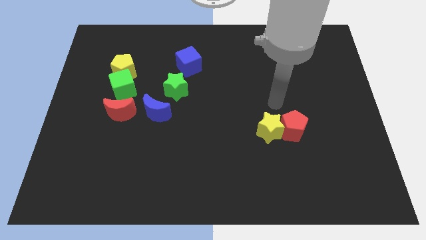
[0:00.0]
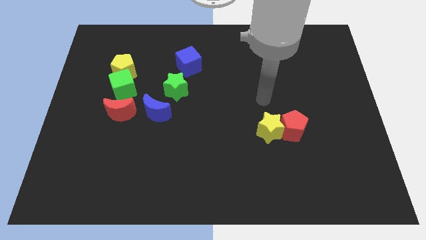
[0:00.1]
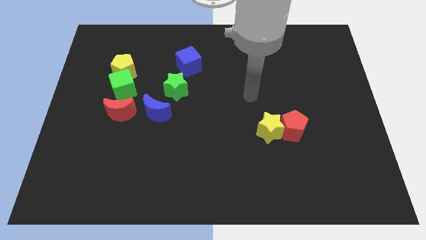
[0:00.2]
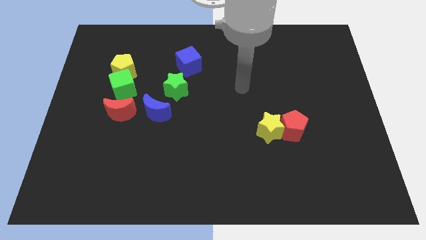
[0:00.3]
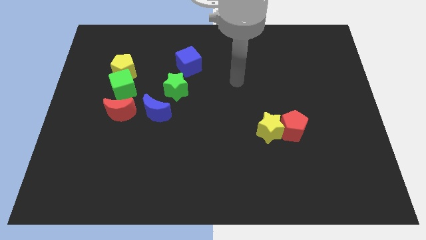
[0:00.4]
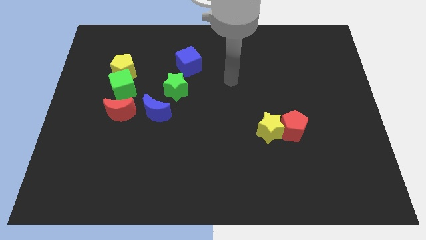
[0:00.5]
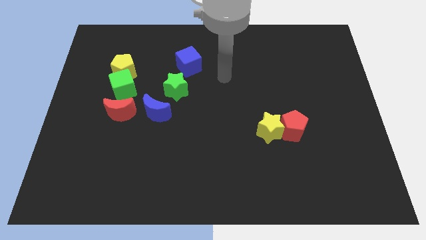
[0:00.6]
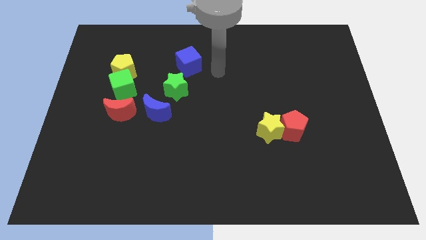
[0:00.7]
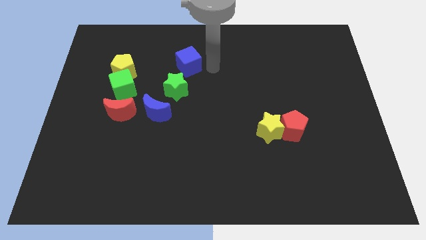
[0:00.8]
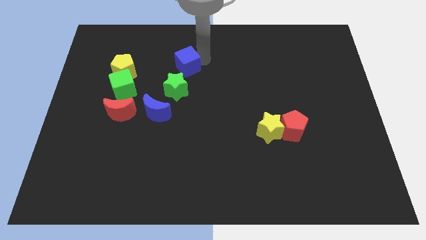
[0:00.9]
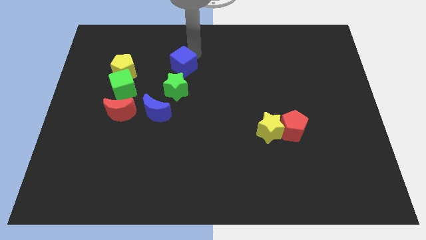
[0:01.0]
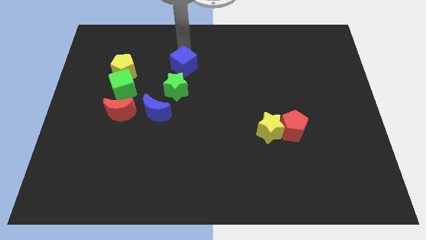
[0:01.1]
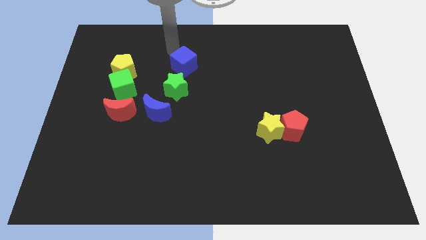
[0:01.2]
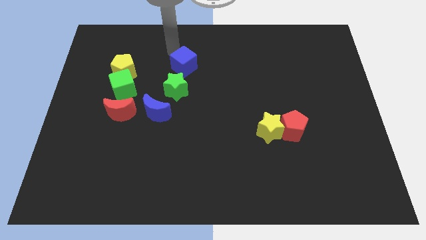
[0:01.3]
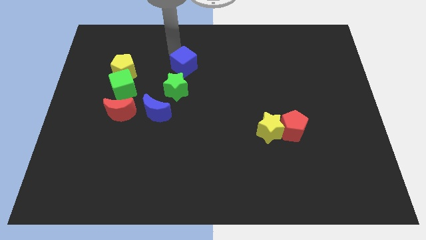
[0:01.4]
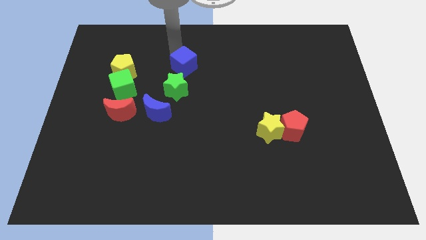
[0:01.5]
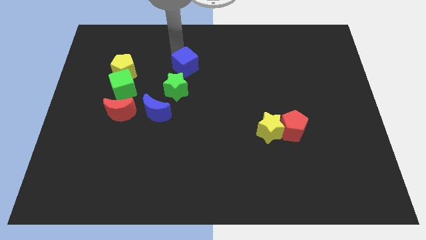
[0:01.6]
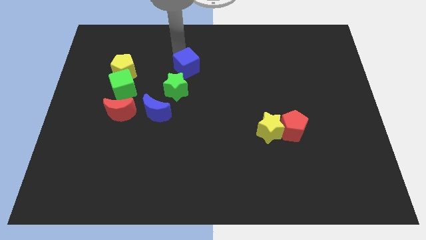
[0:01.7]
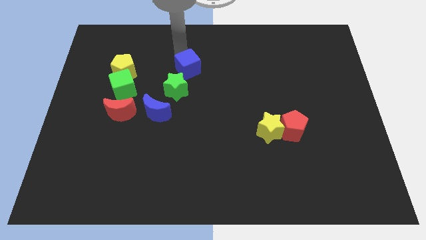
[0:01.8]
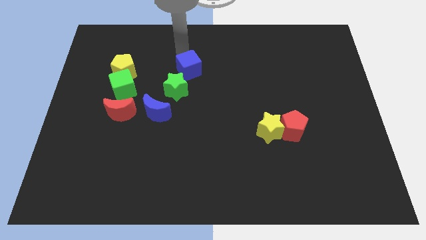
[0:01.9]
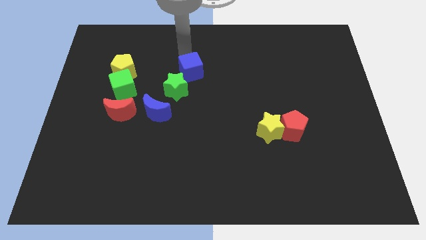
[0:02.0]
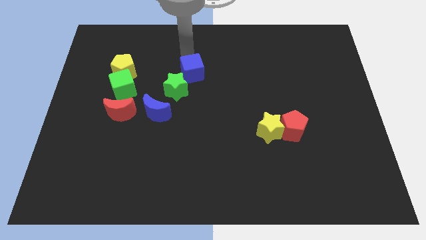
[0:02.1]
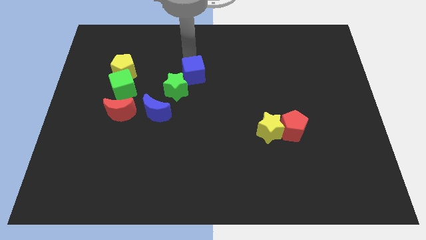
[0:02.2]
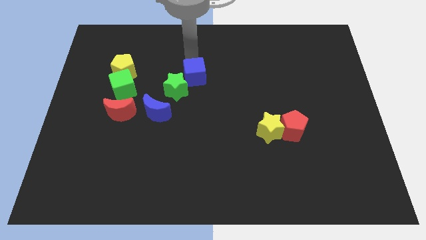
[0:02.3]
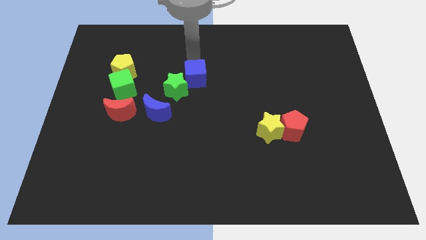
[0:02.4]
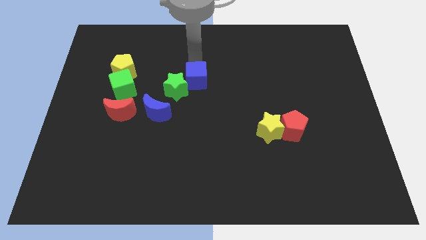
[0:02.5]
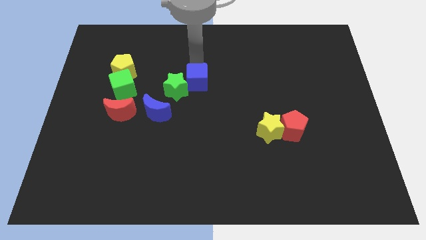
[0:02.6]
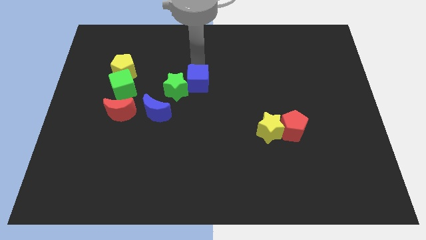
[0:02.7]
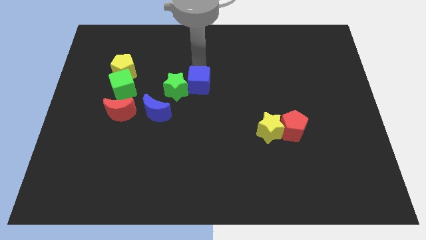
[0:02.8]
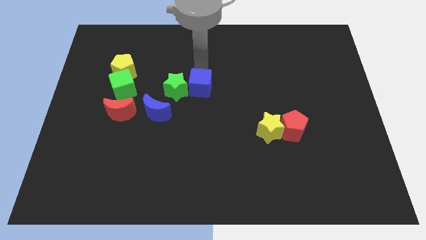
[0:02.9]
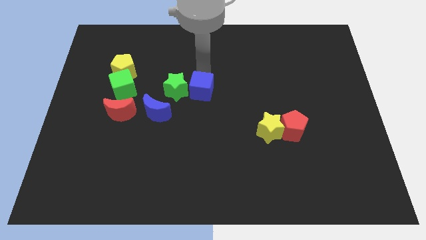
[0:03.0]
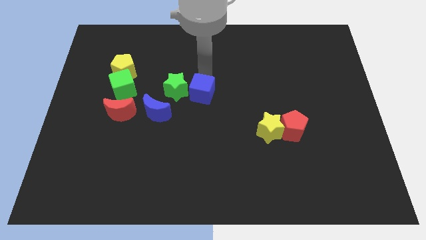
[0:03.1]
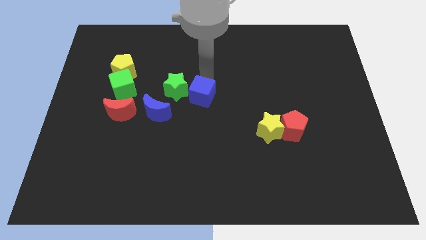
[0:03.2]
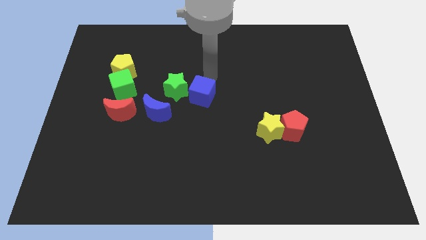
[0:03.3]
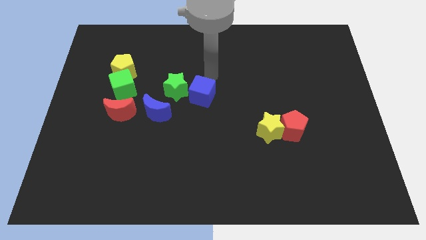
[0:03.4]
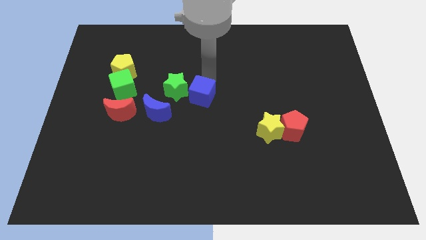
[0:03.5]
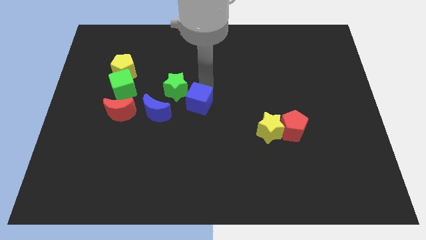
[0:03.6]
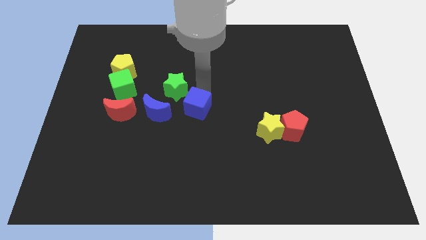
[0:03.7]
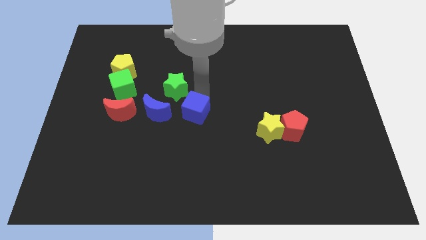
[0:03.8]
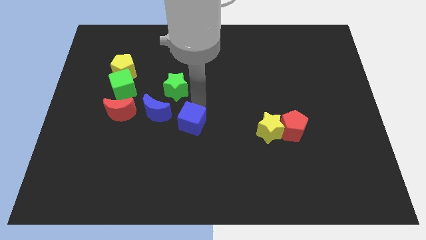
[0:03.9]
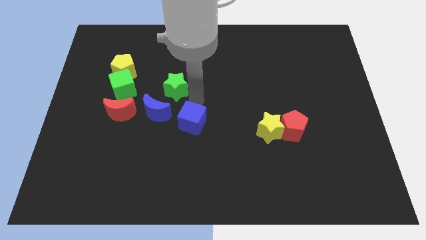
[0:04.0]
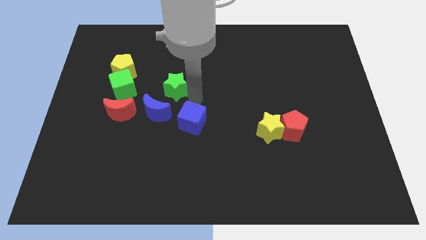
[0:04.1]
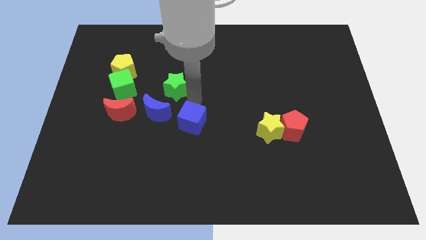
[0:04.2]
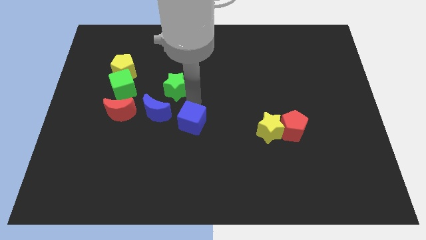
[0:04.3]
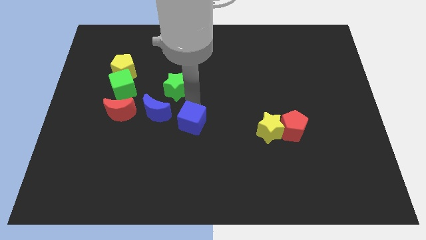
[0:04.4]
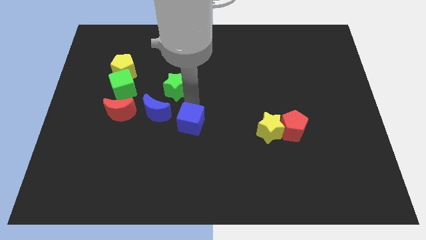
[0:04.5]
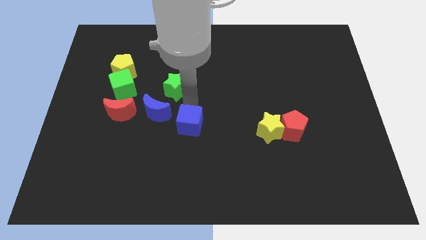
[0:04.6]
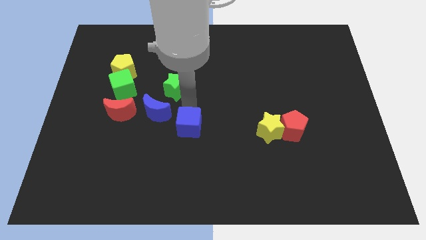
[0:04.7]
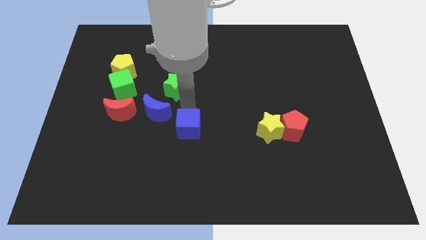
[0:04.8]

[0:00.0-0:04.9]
move the blue cube downwards

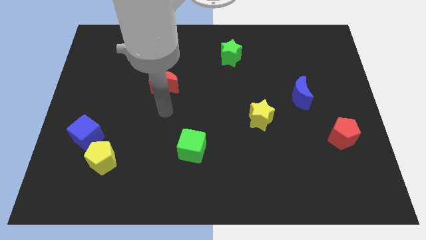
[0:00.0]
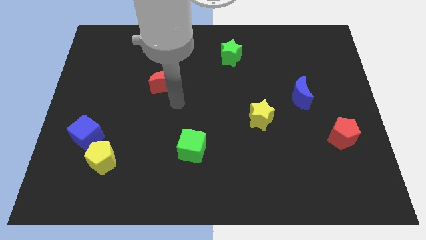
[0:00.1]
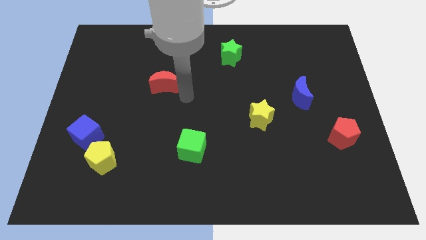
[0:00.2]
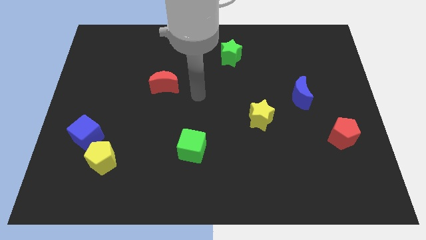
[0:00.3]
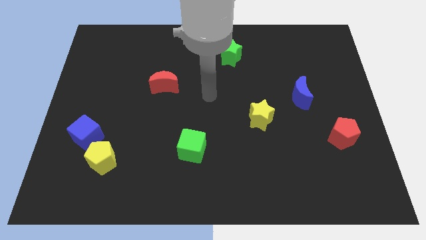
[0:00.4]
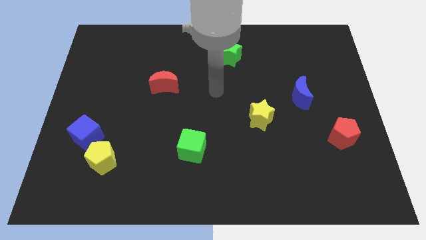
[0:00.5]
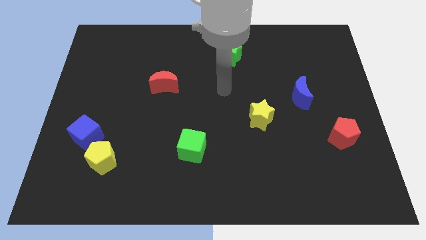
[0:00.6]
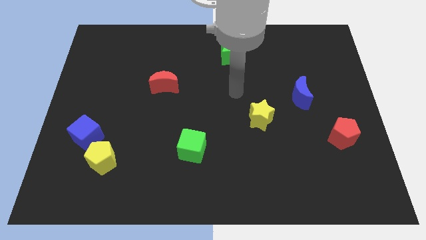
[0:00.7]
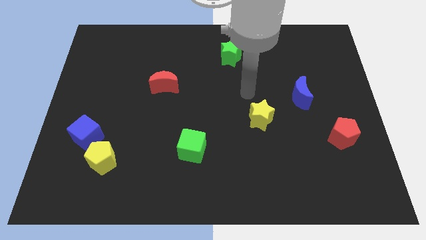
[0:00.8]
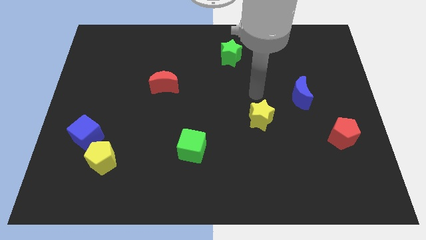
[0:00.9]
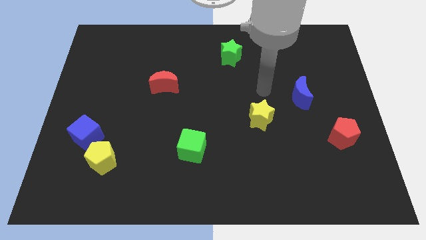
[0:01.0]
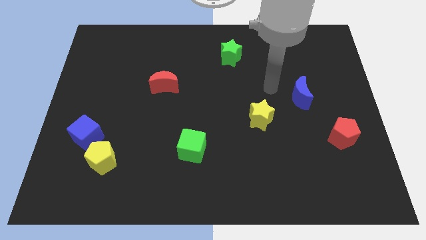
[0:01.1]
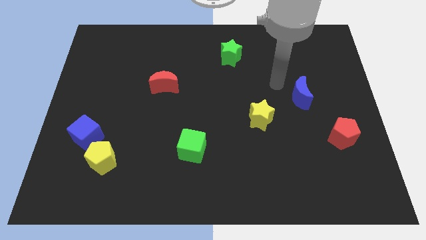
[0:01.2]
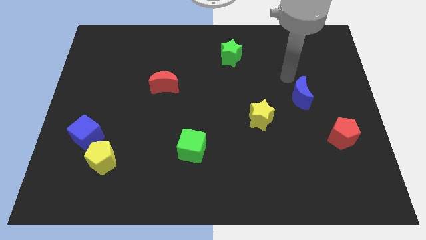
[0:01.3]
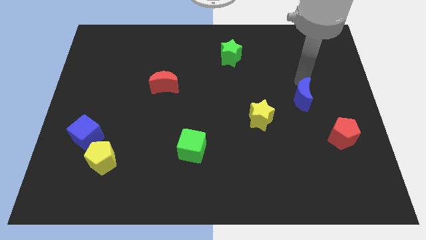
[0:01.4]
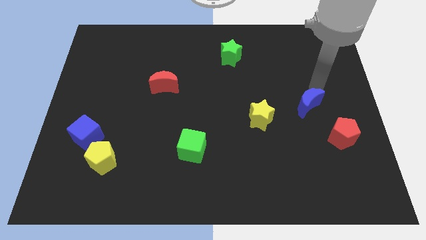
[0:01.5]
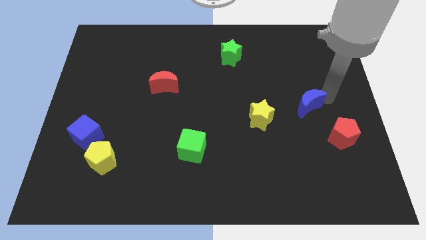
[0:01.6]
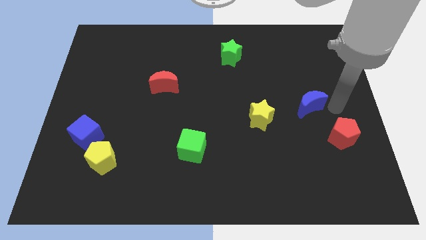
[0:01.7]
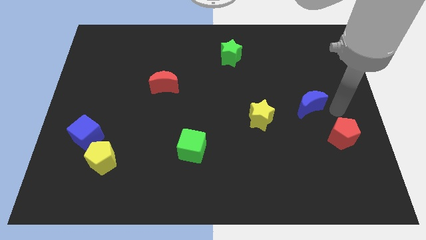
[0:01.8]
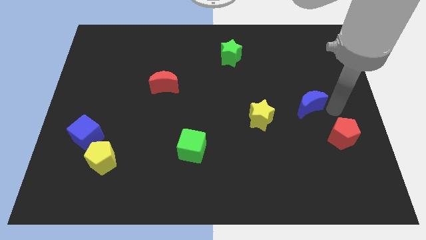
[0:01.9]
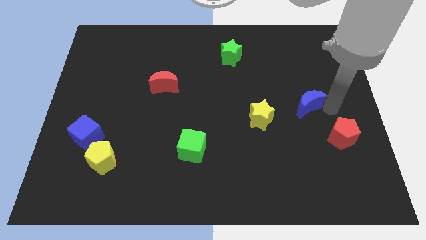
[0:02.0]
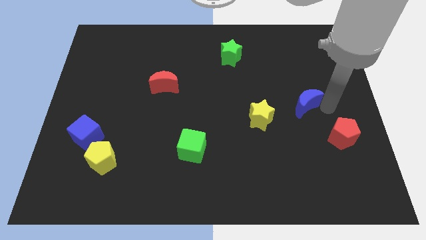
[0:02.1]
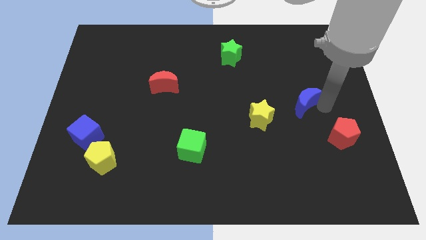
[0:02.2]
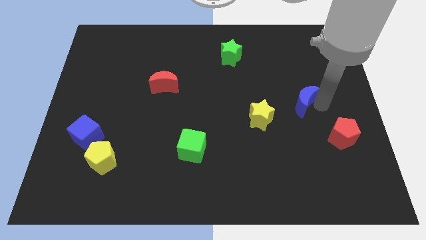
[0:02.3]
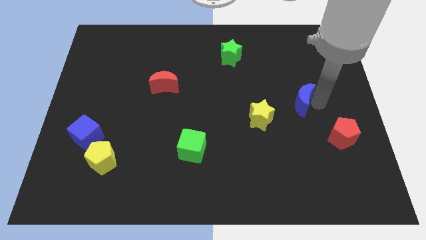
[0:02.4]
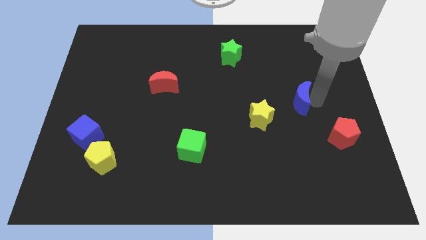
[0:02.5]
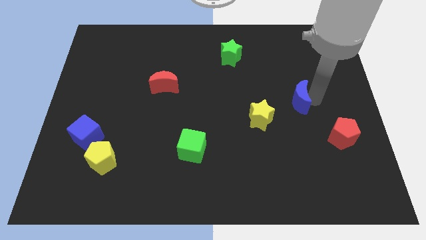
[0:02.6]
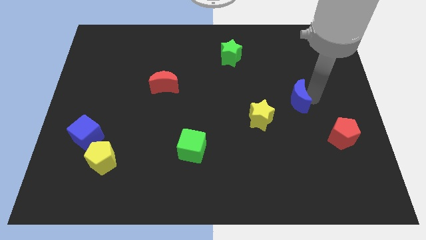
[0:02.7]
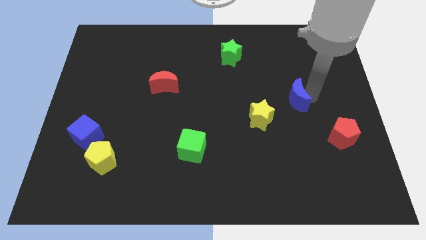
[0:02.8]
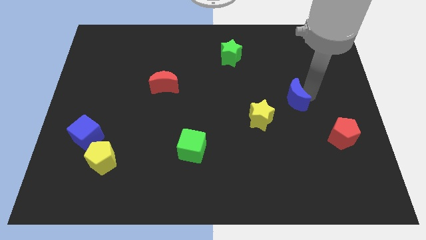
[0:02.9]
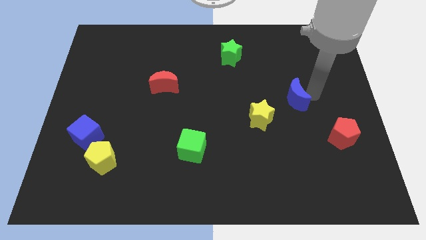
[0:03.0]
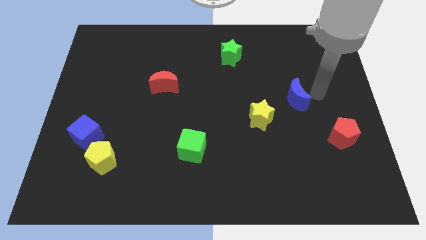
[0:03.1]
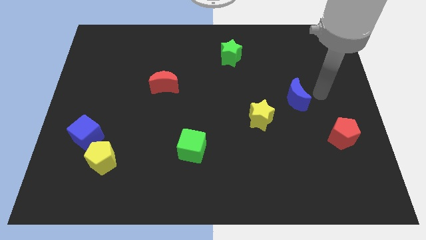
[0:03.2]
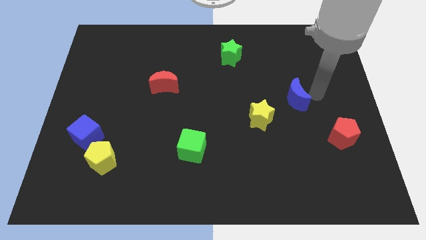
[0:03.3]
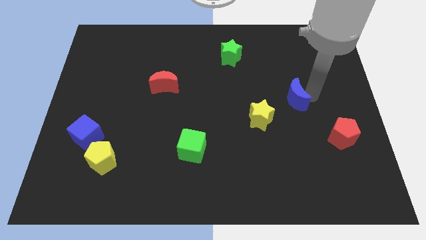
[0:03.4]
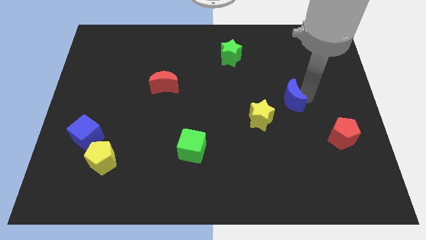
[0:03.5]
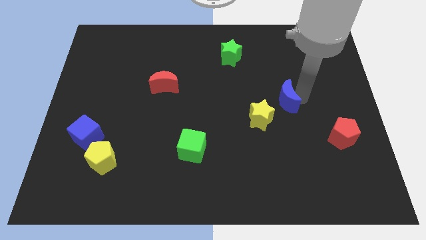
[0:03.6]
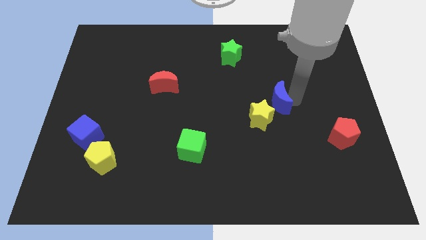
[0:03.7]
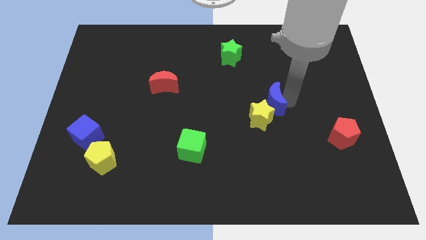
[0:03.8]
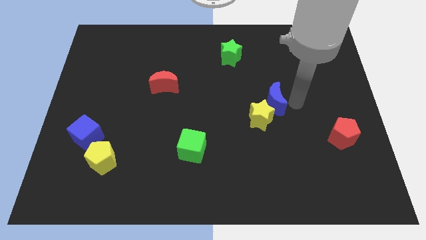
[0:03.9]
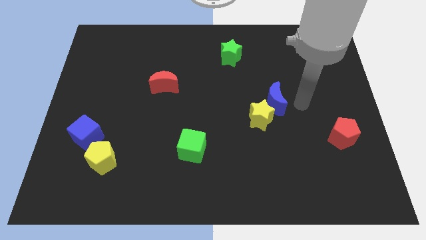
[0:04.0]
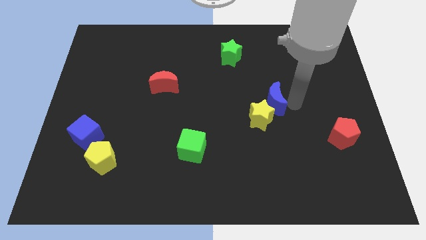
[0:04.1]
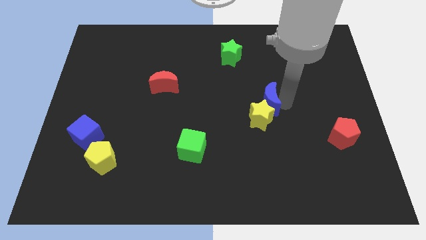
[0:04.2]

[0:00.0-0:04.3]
slightly move the blue moon left
